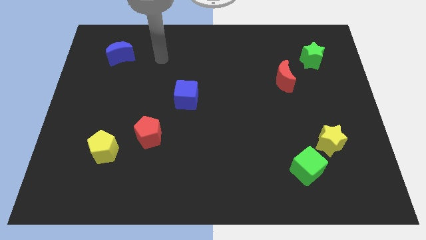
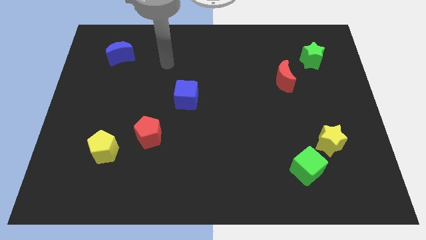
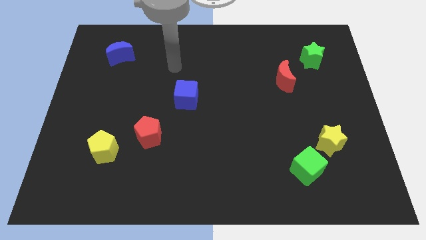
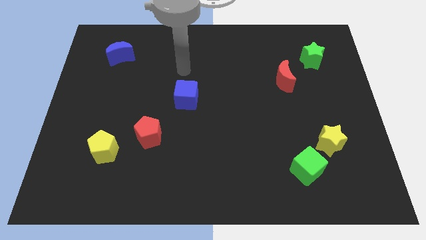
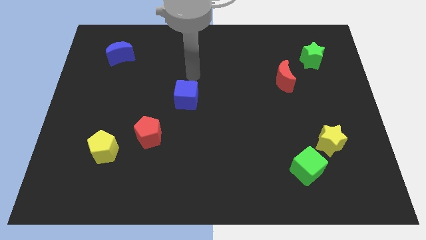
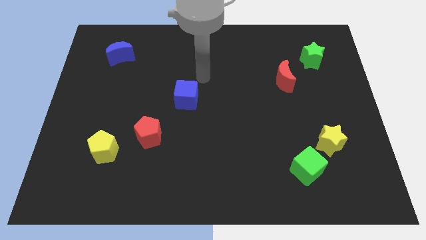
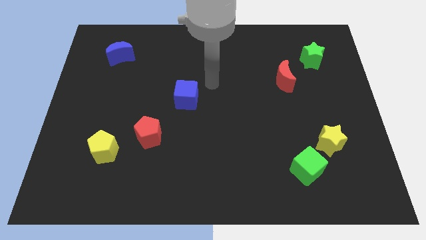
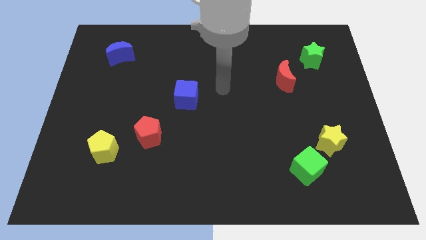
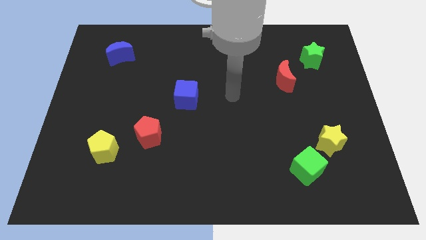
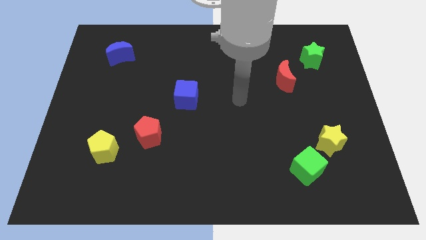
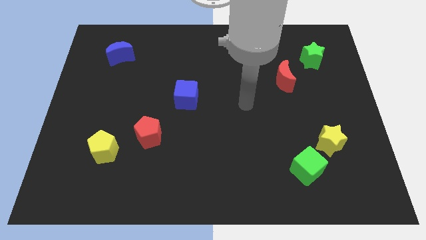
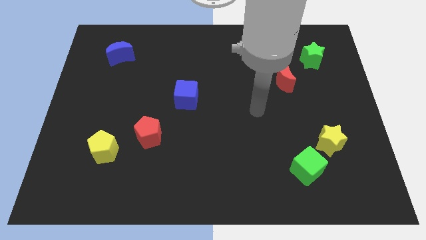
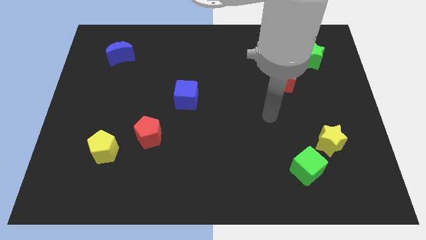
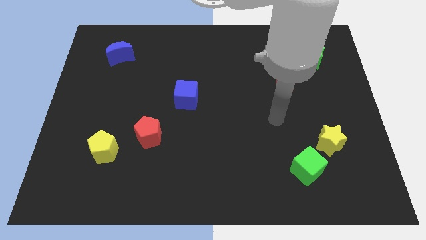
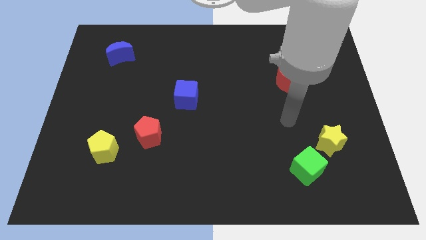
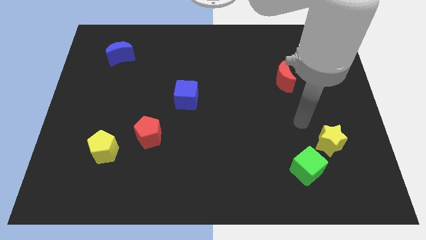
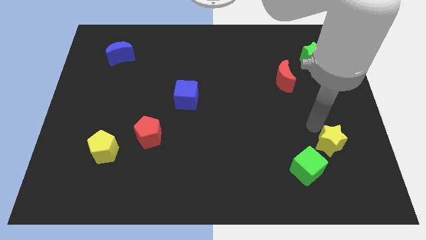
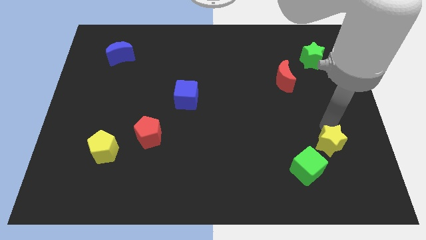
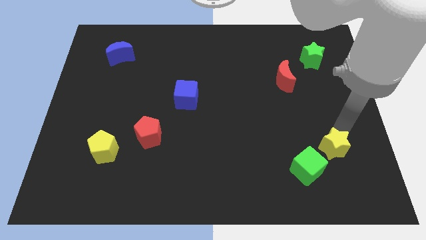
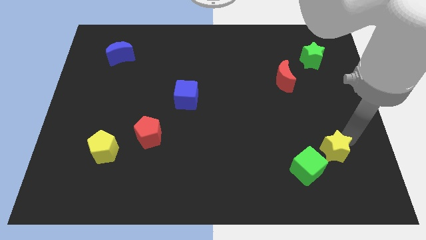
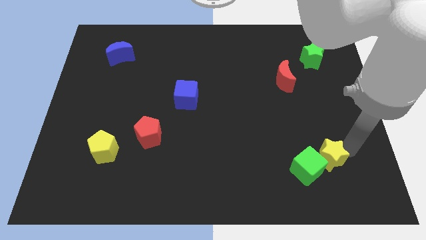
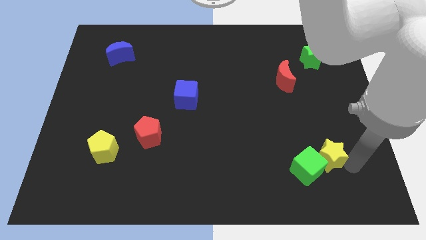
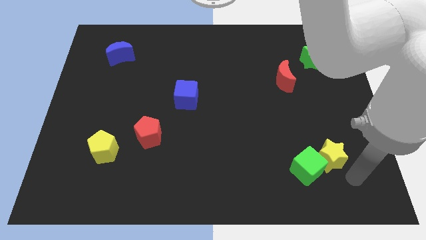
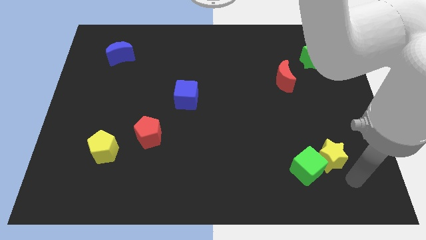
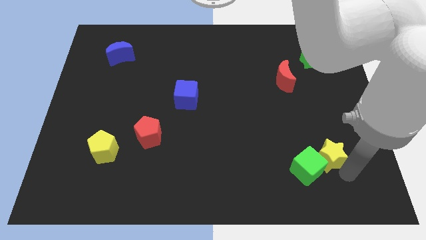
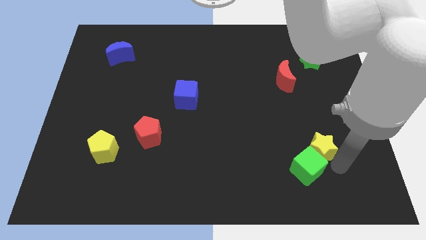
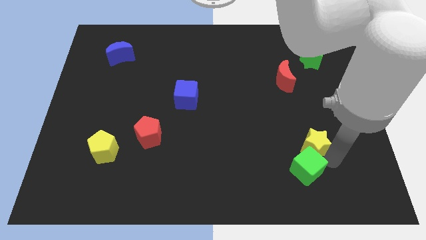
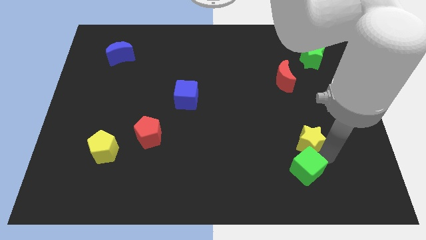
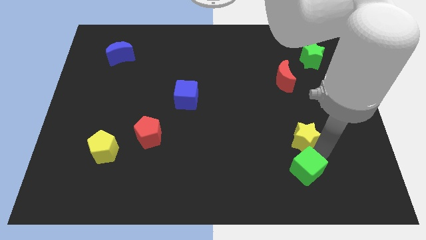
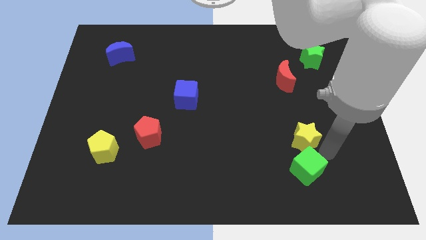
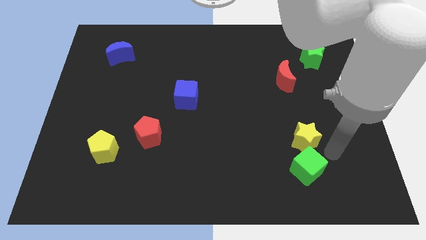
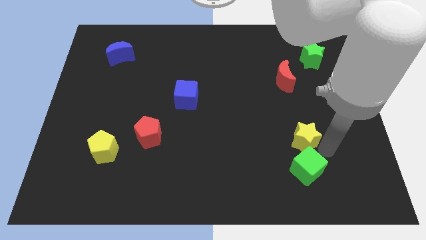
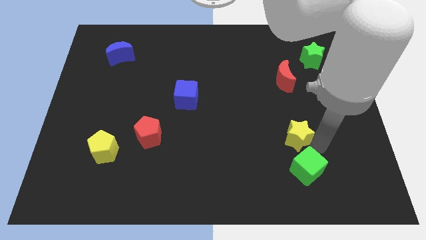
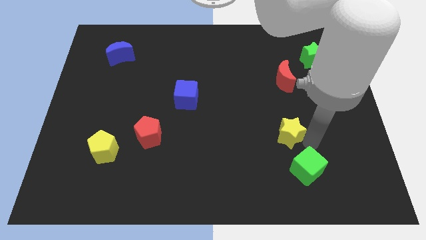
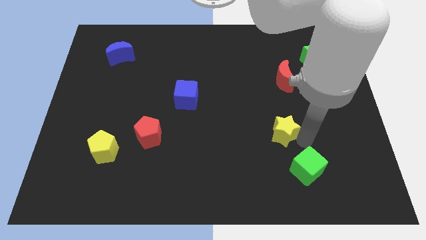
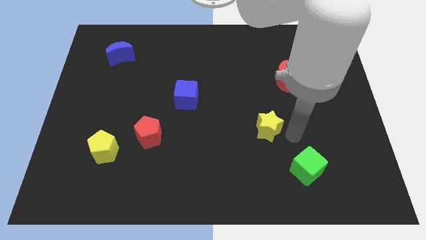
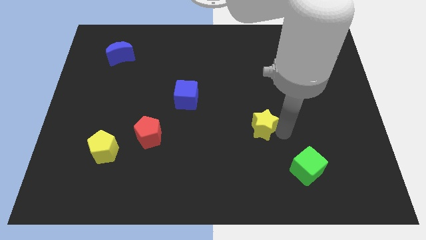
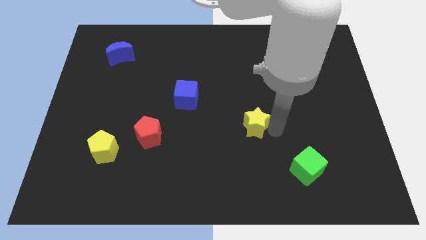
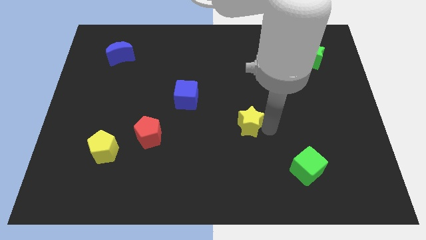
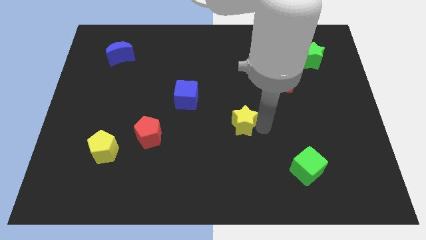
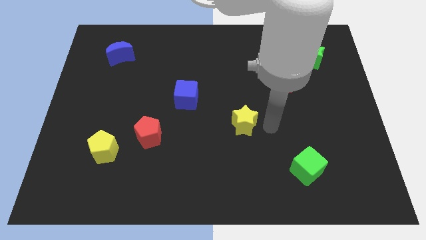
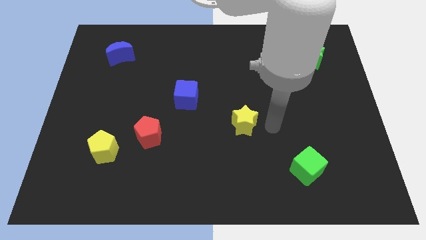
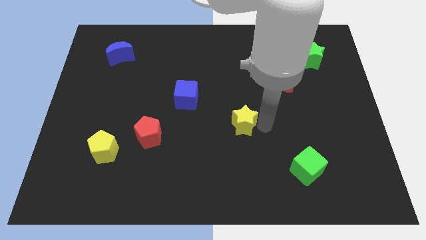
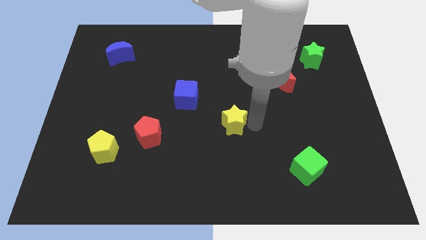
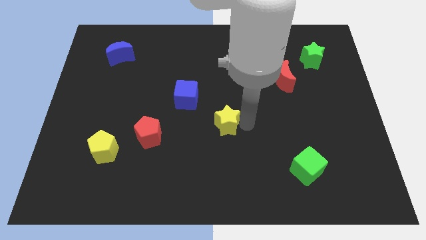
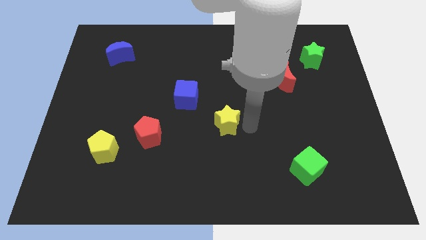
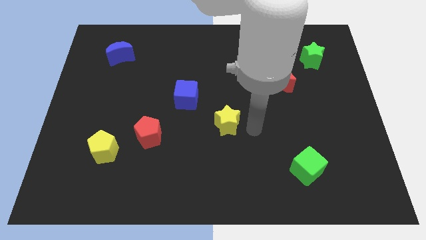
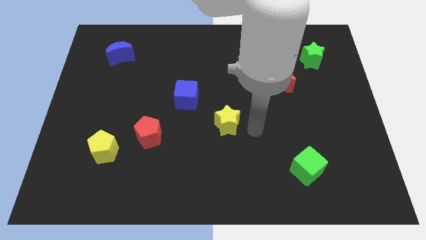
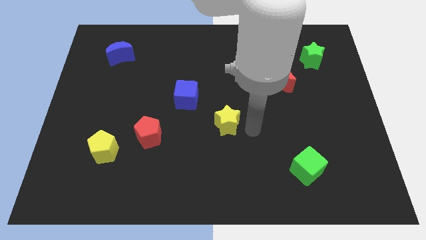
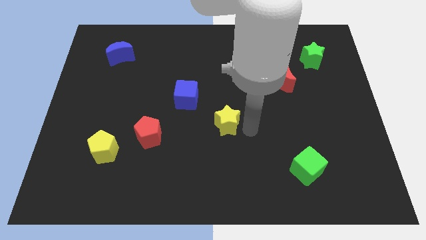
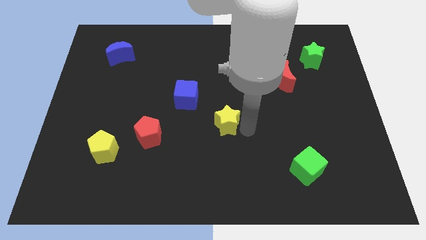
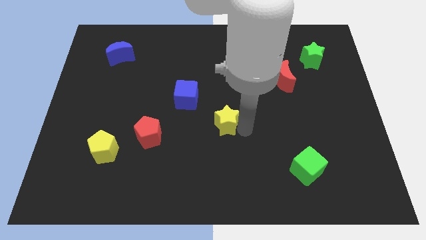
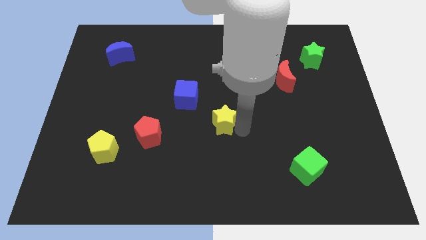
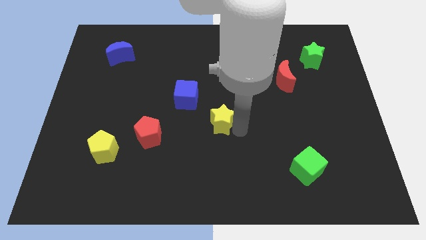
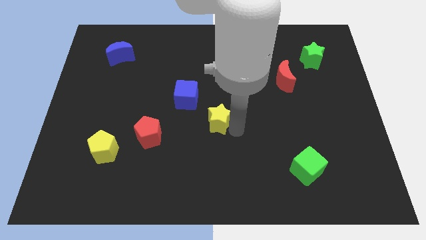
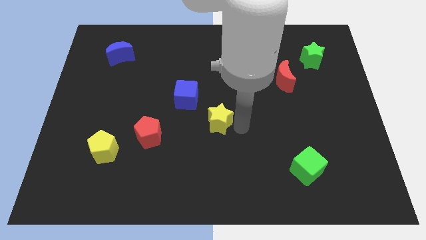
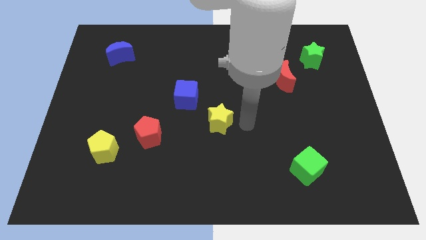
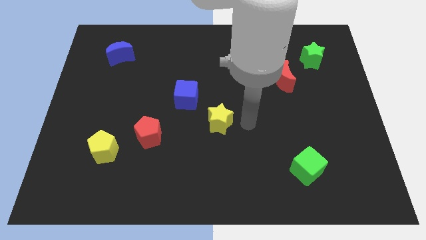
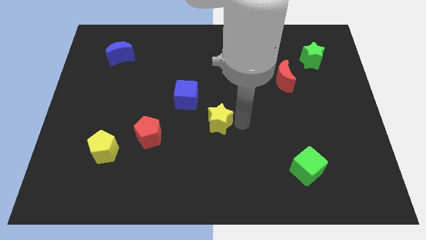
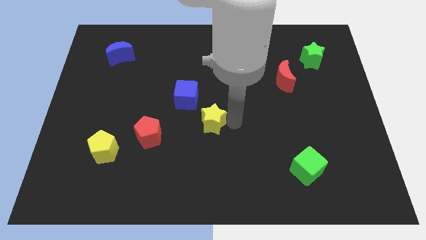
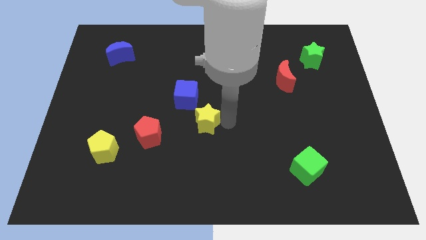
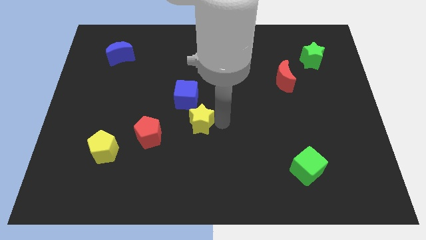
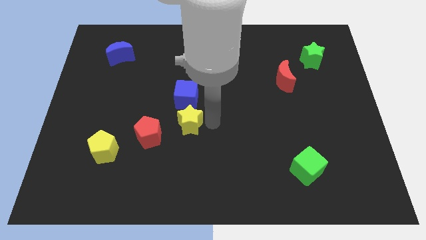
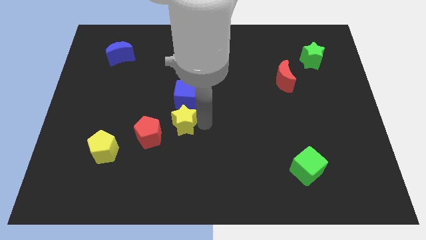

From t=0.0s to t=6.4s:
slide the yellow star to the bottom left side of the blue cube

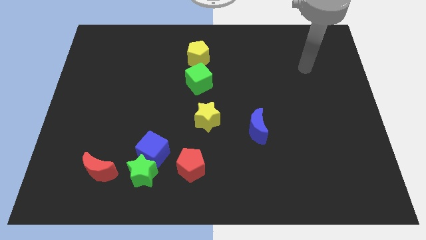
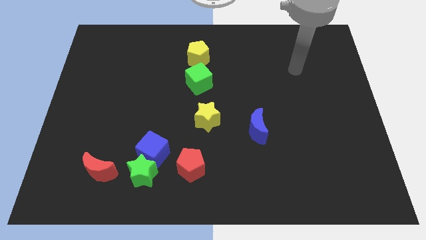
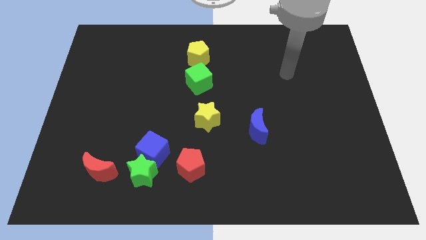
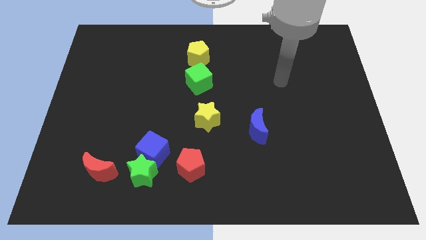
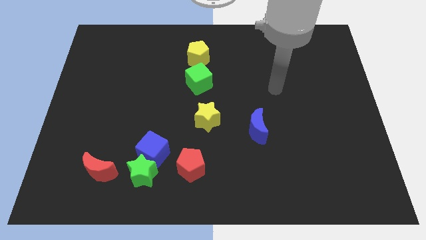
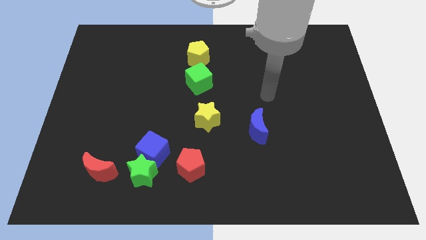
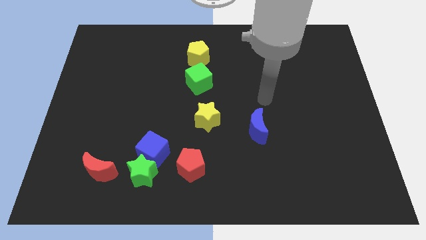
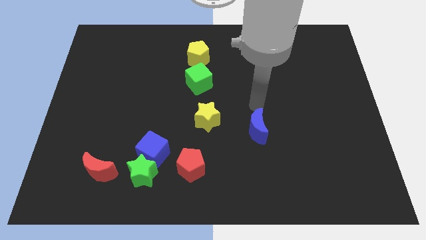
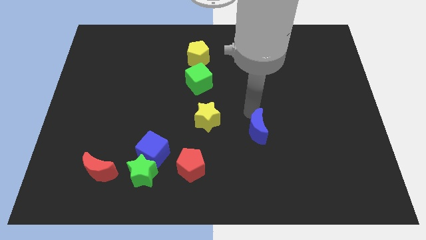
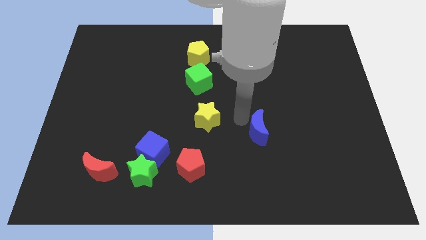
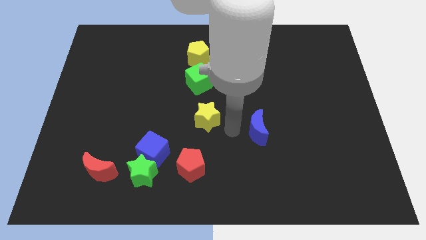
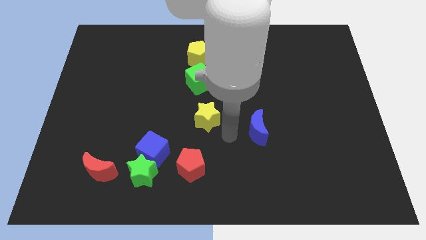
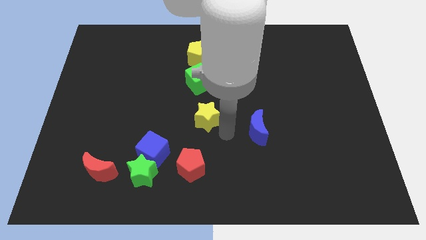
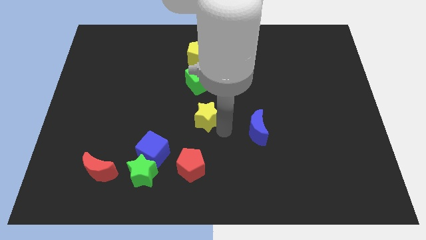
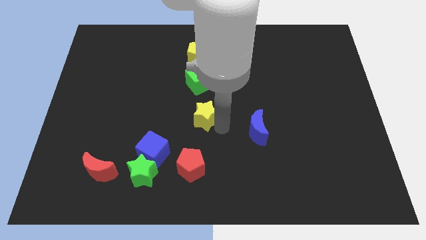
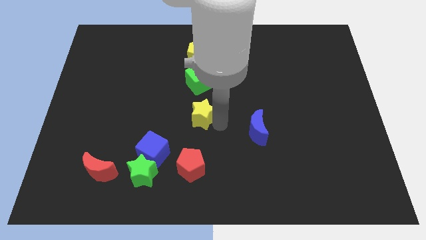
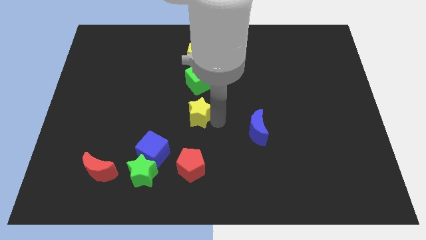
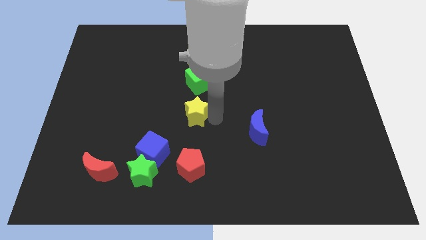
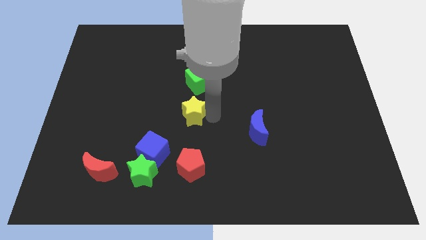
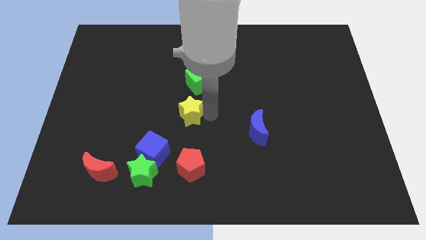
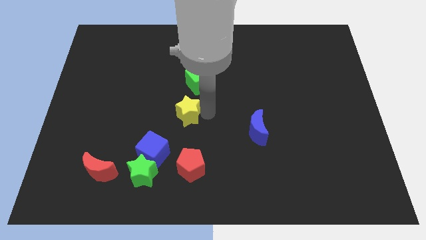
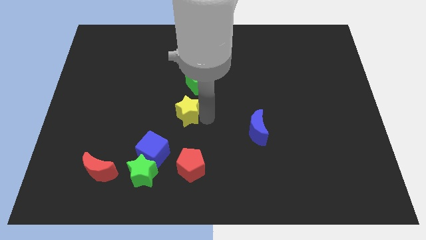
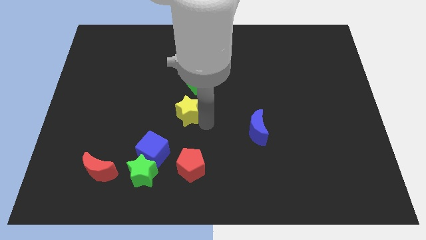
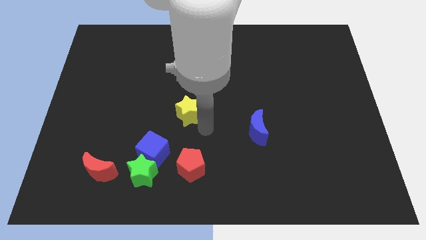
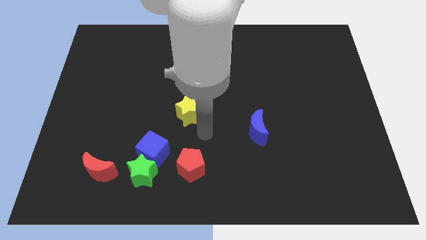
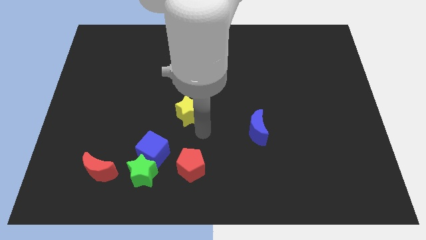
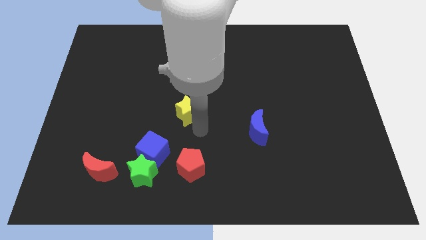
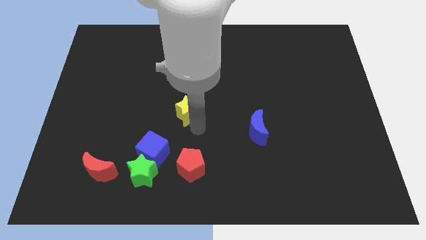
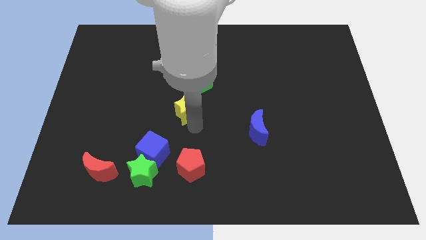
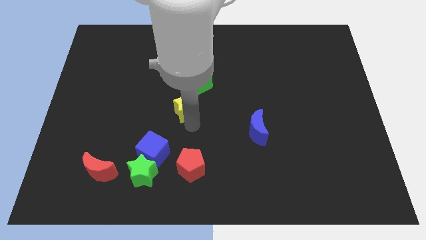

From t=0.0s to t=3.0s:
put the yellow star to the bottom left side of the green cube
